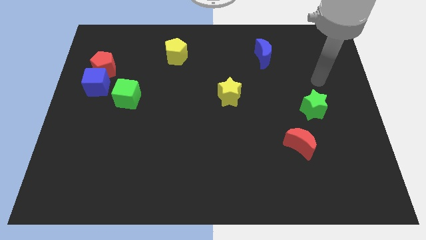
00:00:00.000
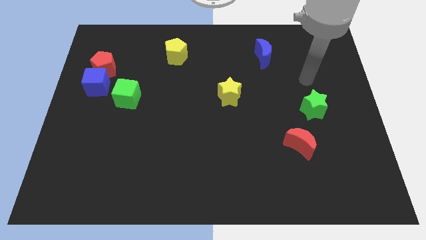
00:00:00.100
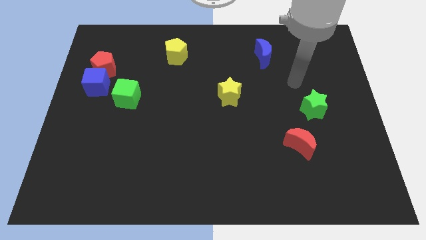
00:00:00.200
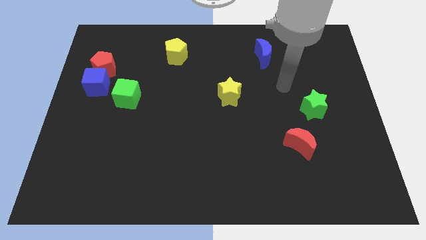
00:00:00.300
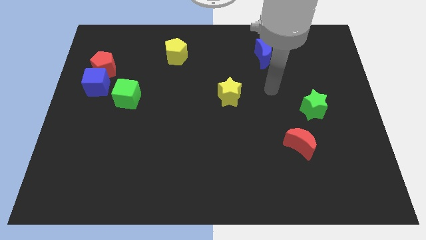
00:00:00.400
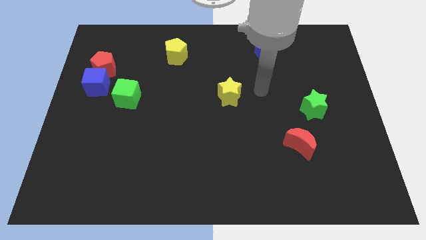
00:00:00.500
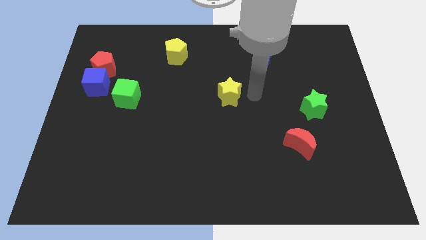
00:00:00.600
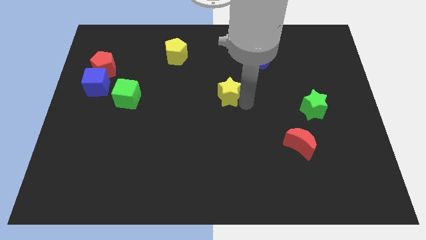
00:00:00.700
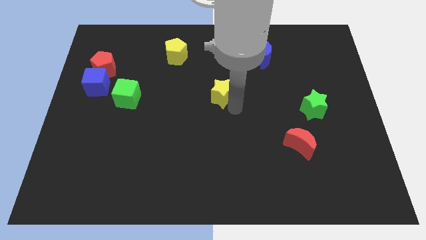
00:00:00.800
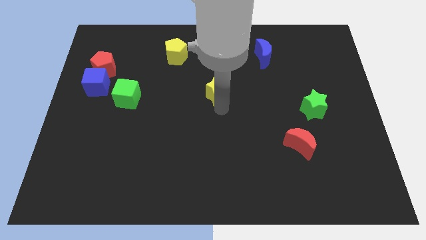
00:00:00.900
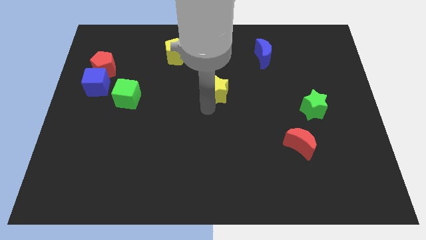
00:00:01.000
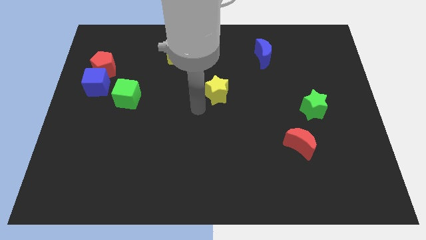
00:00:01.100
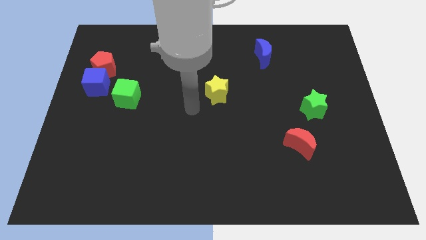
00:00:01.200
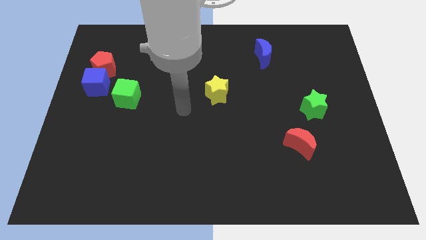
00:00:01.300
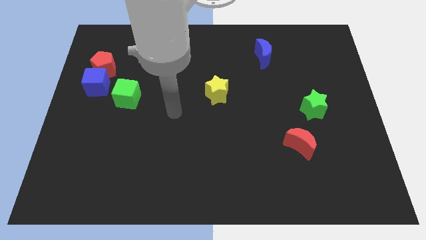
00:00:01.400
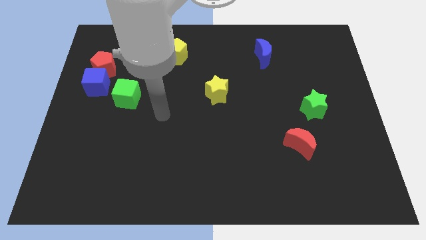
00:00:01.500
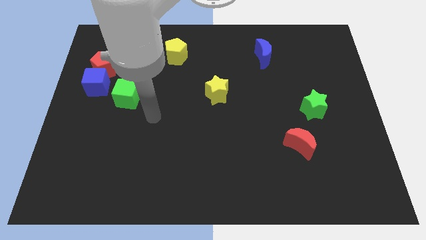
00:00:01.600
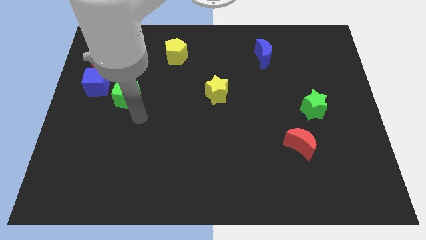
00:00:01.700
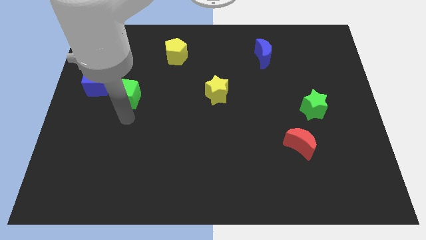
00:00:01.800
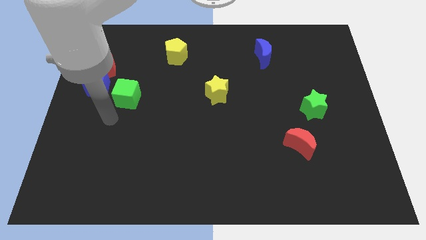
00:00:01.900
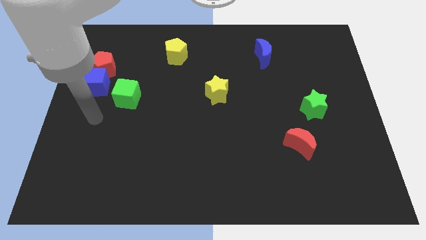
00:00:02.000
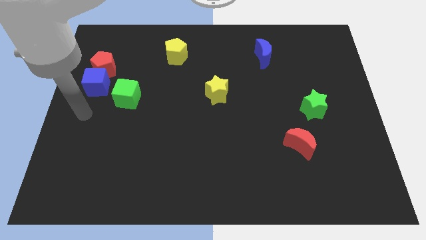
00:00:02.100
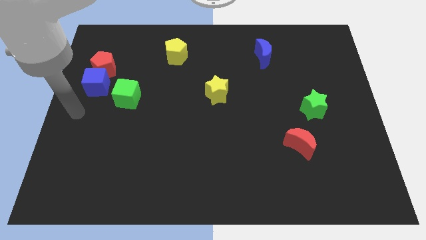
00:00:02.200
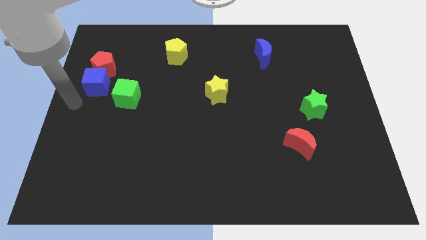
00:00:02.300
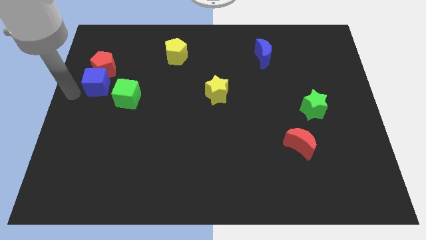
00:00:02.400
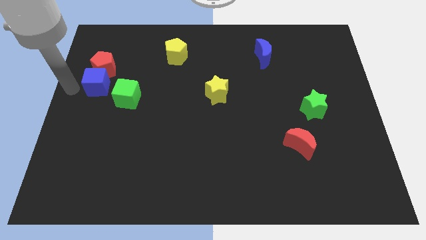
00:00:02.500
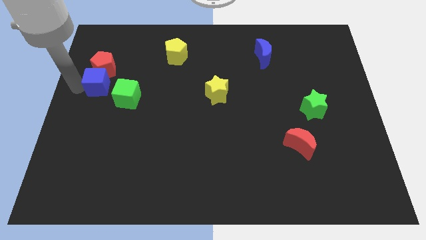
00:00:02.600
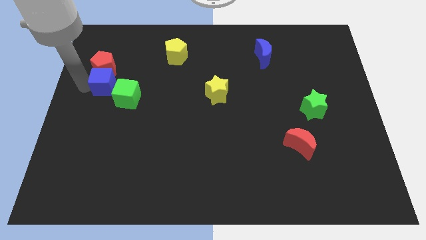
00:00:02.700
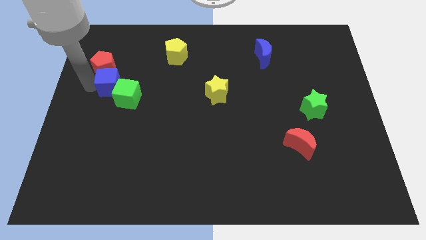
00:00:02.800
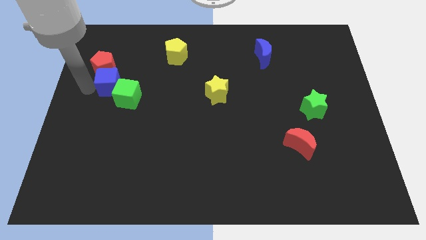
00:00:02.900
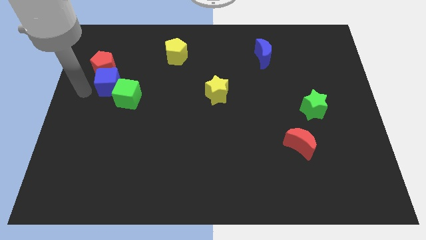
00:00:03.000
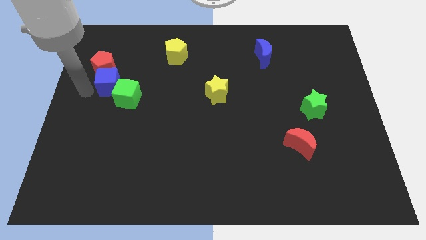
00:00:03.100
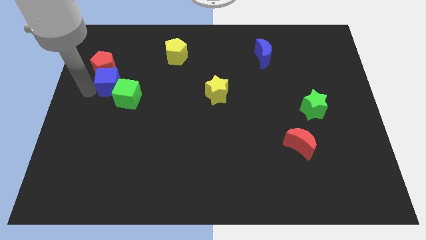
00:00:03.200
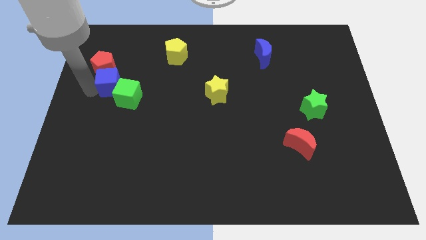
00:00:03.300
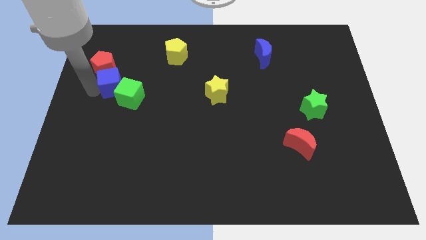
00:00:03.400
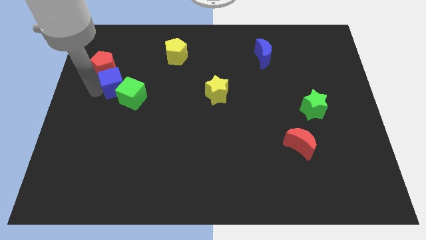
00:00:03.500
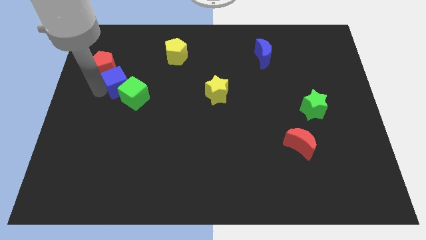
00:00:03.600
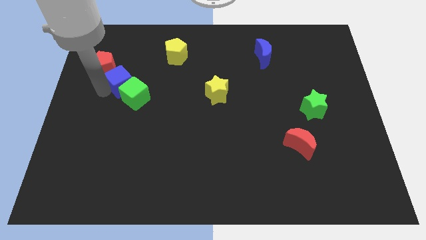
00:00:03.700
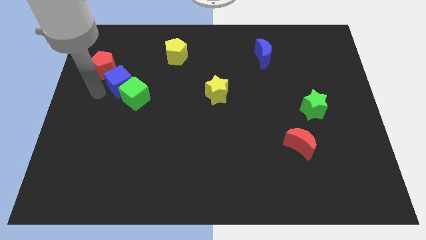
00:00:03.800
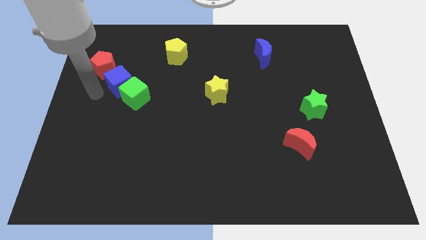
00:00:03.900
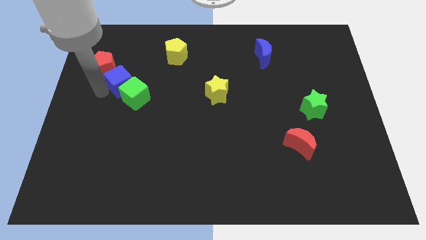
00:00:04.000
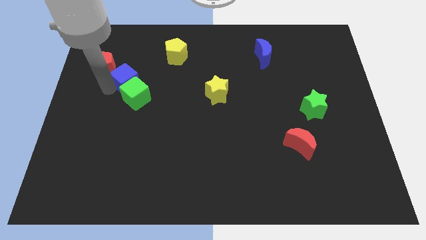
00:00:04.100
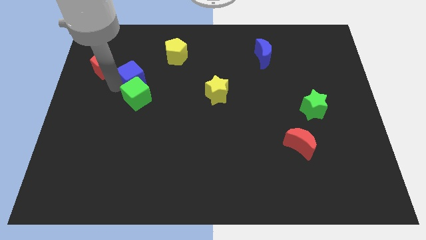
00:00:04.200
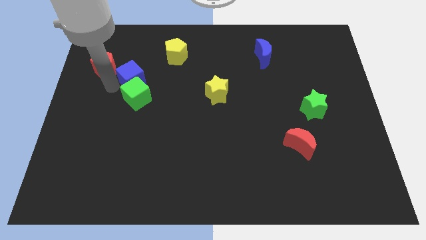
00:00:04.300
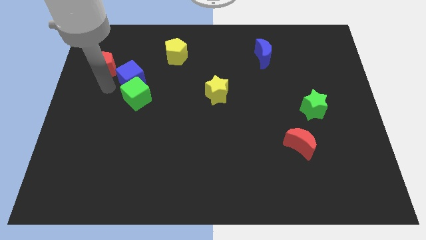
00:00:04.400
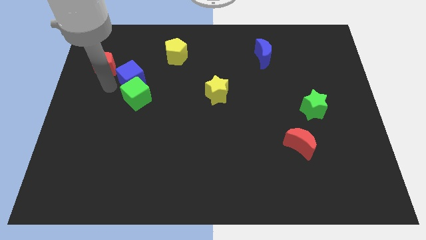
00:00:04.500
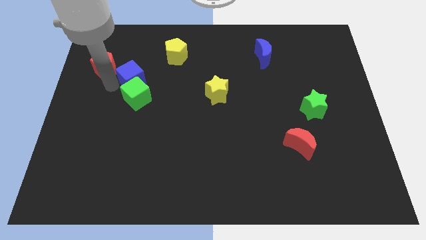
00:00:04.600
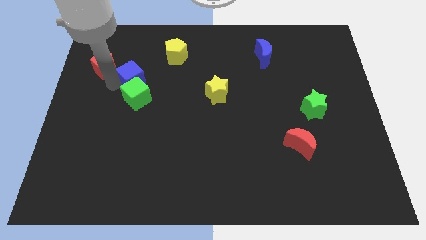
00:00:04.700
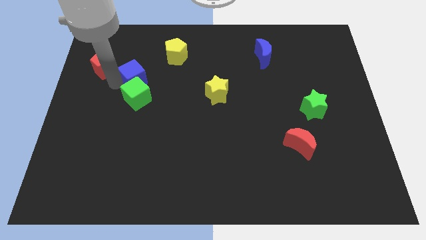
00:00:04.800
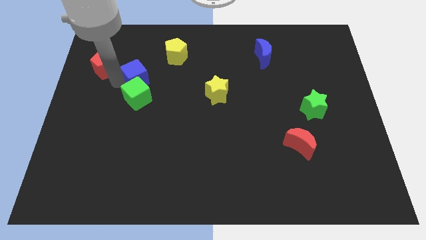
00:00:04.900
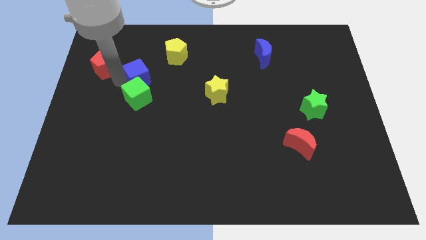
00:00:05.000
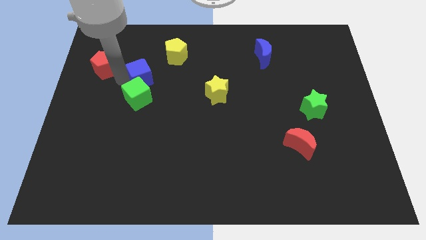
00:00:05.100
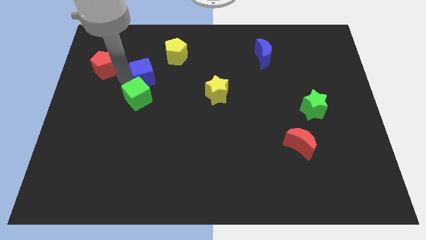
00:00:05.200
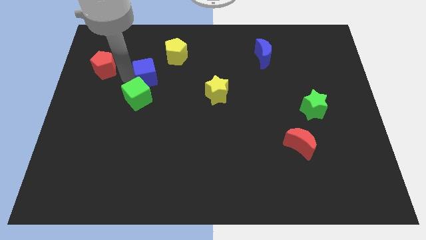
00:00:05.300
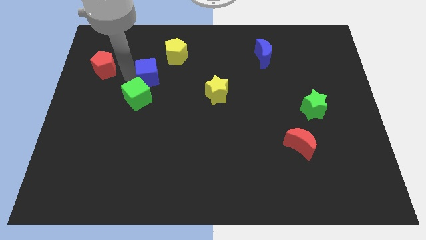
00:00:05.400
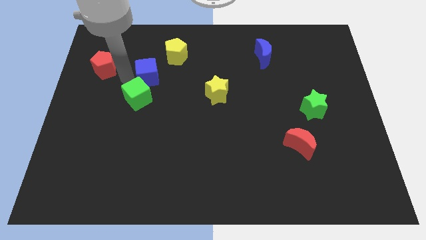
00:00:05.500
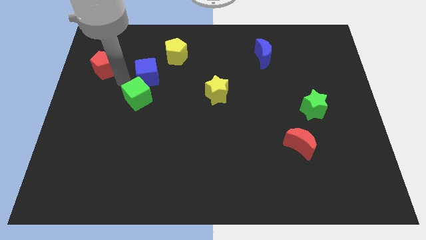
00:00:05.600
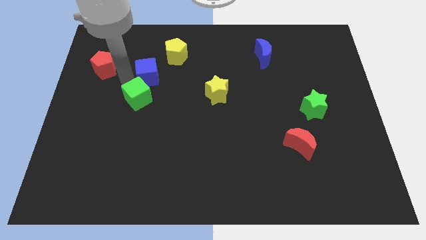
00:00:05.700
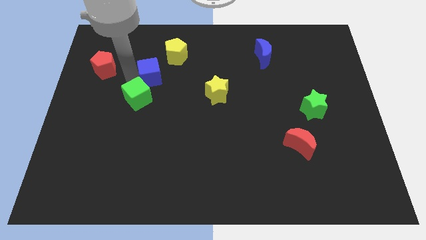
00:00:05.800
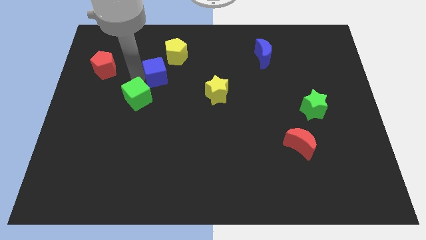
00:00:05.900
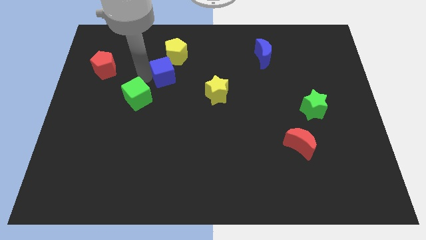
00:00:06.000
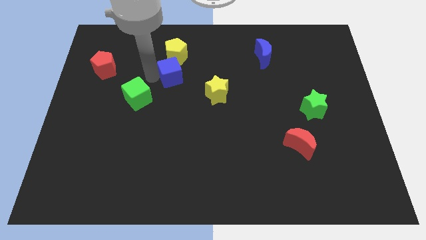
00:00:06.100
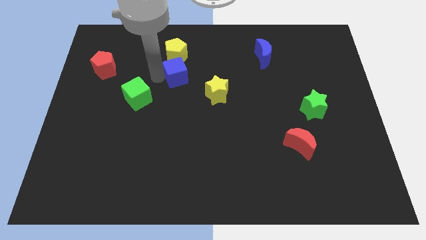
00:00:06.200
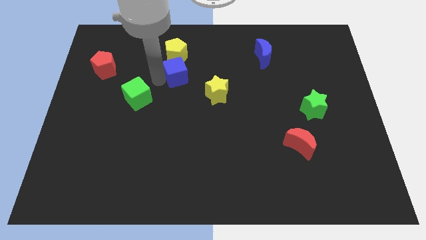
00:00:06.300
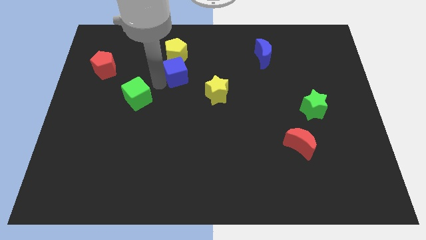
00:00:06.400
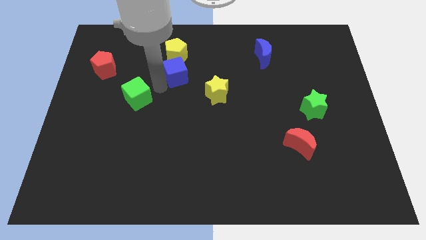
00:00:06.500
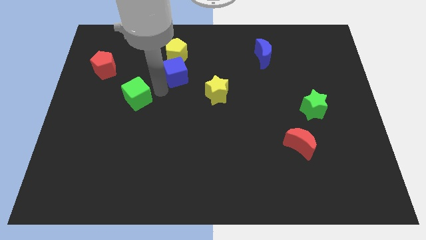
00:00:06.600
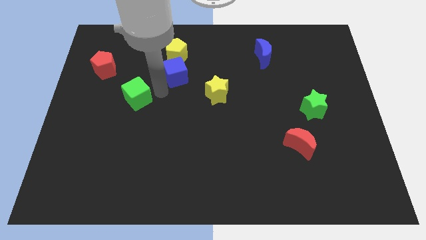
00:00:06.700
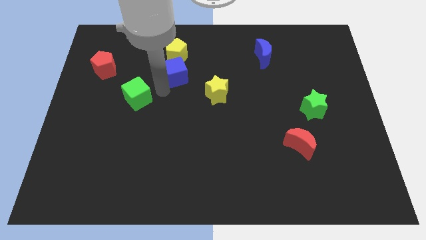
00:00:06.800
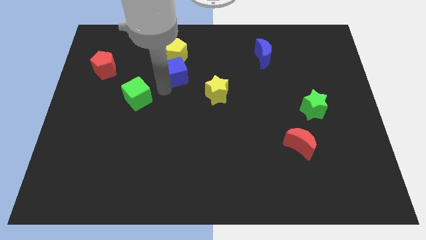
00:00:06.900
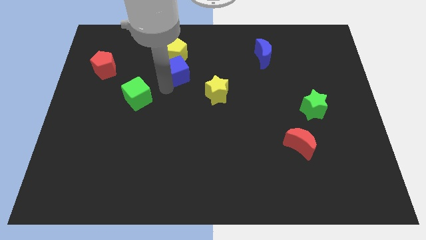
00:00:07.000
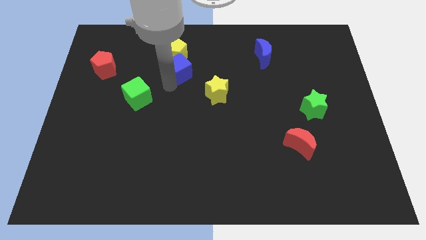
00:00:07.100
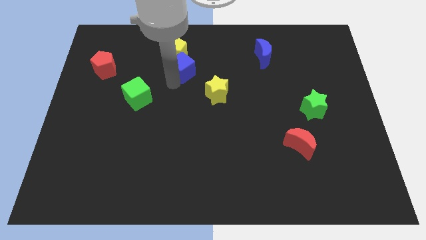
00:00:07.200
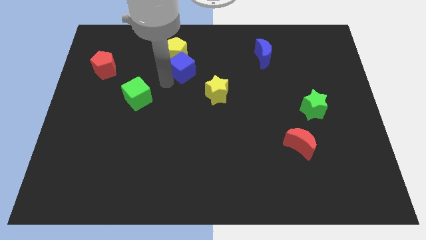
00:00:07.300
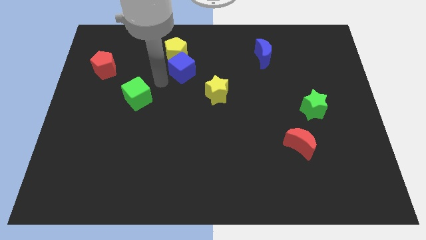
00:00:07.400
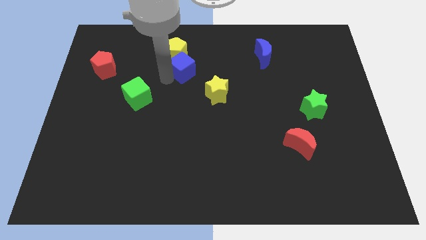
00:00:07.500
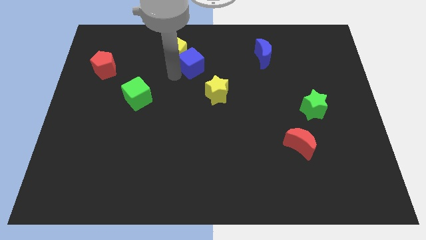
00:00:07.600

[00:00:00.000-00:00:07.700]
put the blue cube to the right side of the yellow pentagon

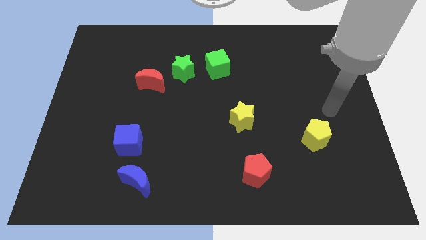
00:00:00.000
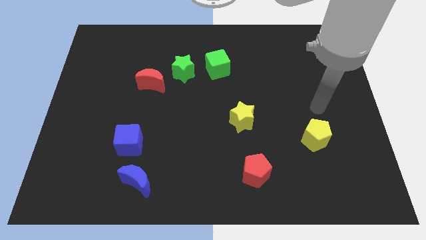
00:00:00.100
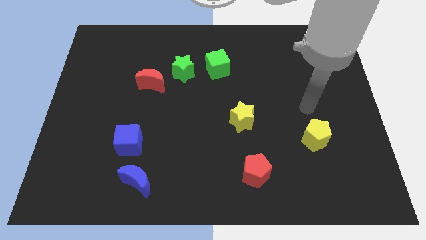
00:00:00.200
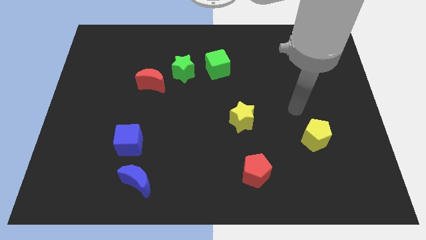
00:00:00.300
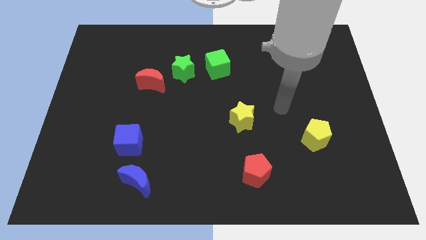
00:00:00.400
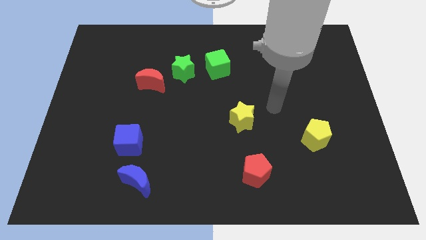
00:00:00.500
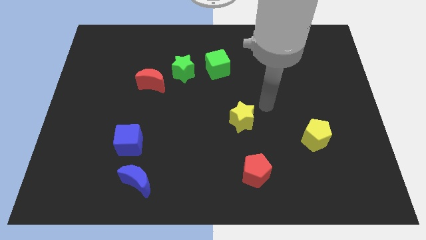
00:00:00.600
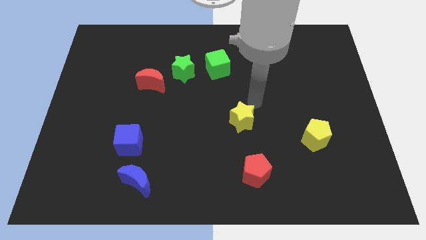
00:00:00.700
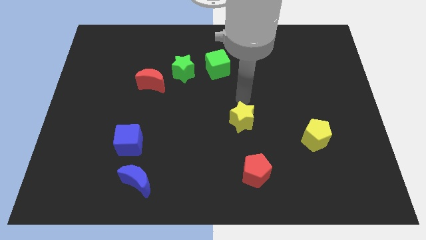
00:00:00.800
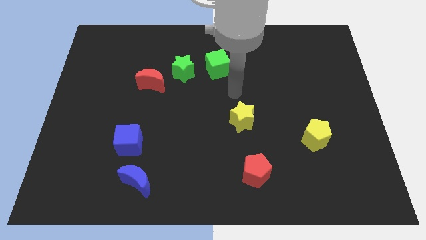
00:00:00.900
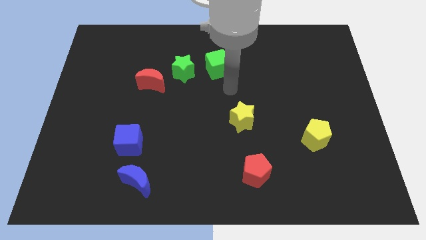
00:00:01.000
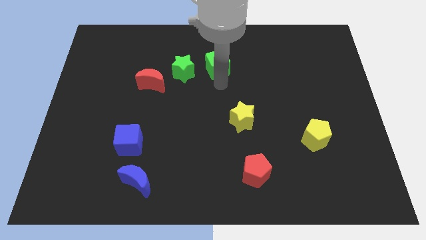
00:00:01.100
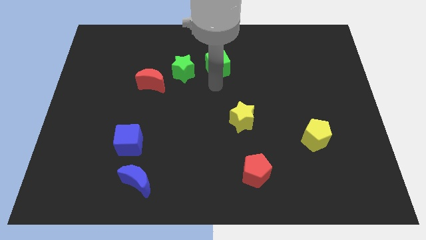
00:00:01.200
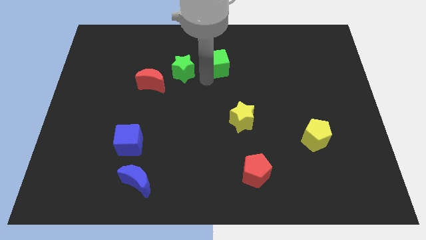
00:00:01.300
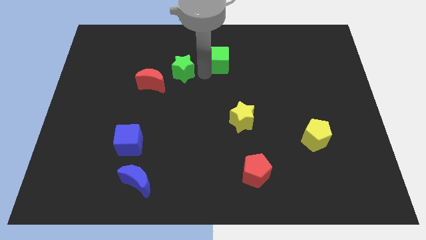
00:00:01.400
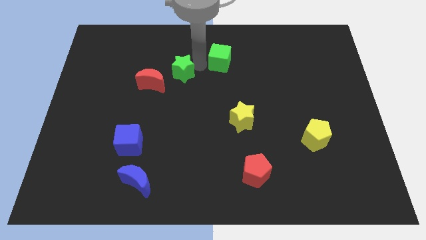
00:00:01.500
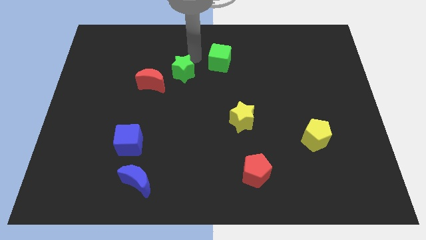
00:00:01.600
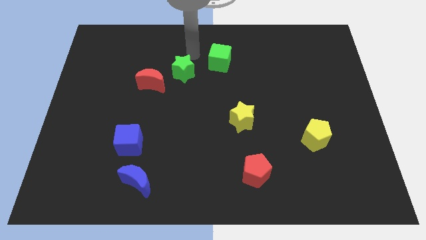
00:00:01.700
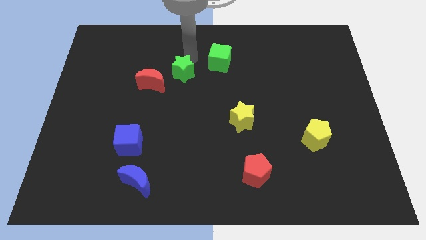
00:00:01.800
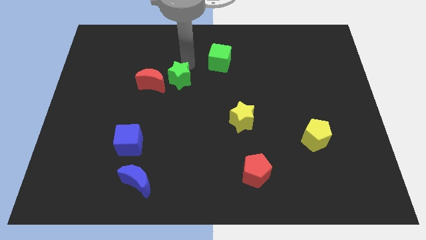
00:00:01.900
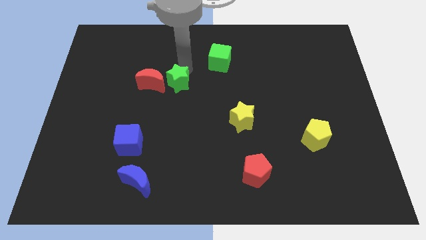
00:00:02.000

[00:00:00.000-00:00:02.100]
push the green star to the bottom right of the red moon
